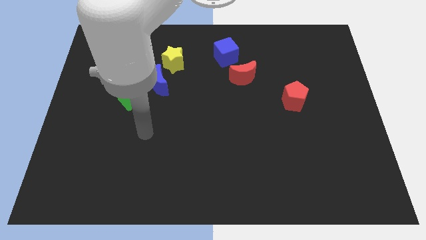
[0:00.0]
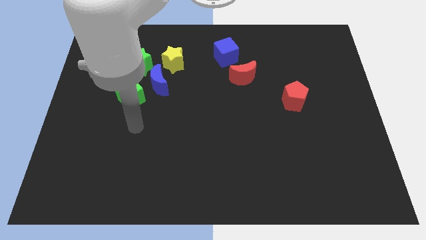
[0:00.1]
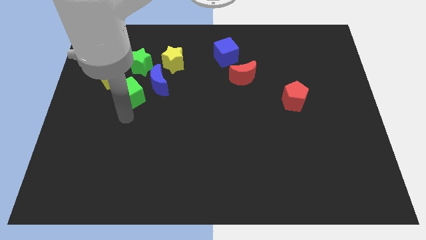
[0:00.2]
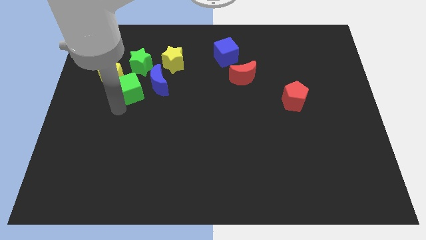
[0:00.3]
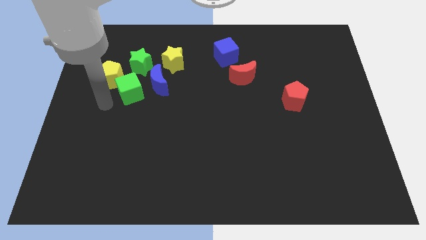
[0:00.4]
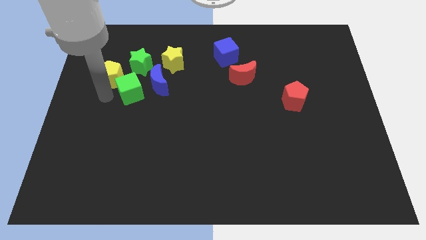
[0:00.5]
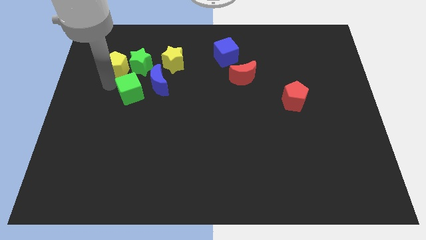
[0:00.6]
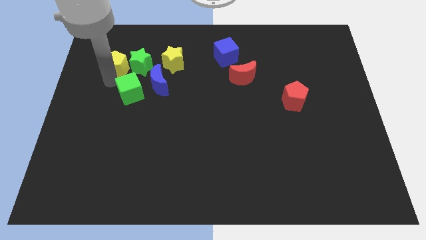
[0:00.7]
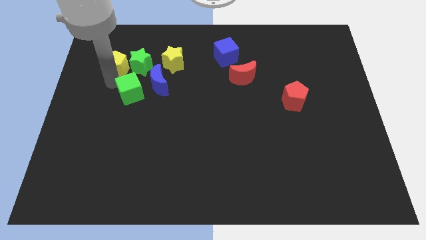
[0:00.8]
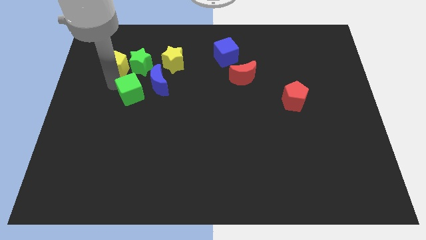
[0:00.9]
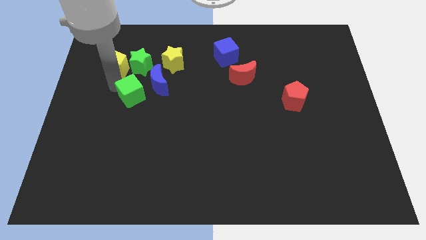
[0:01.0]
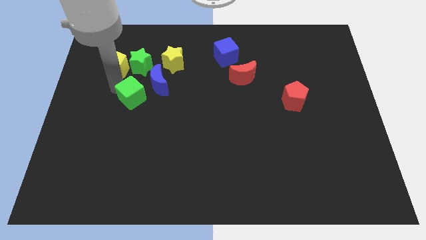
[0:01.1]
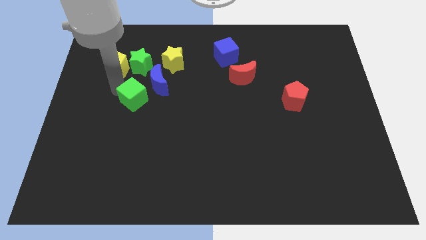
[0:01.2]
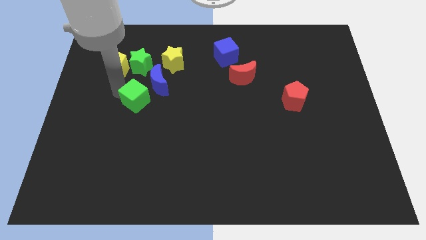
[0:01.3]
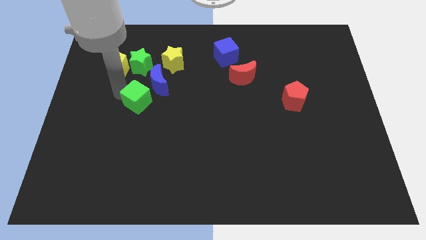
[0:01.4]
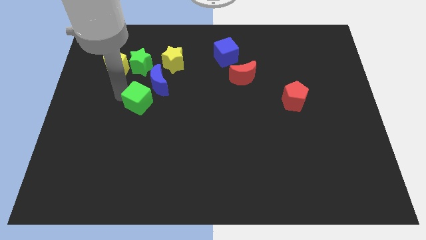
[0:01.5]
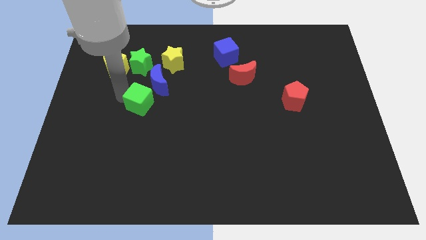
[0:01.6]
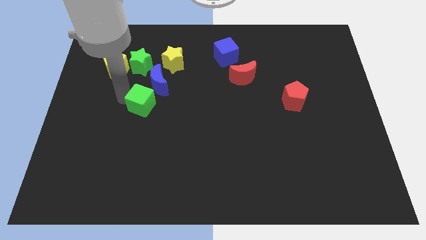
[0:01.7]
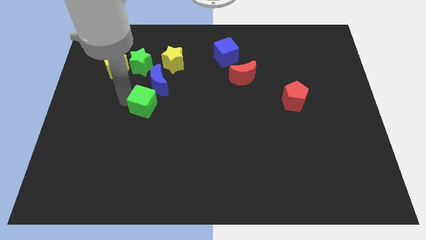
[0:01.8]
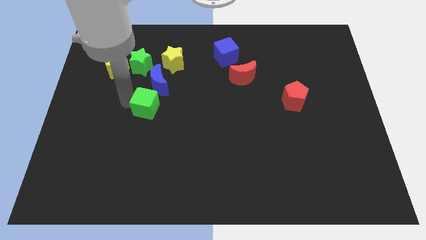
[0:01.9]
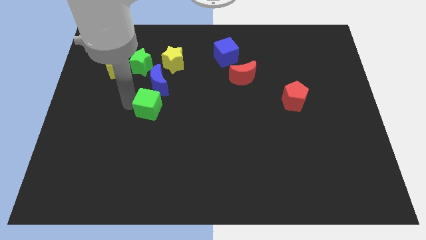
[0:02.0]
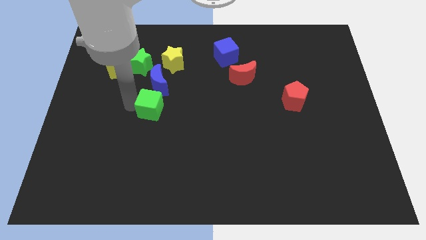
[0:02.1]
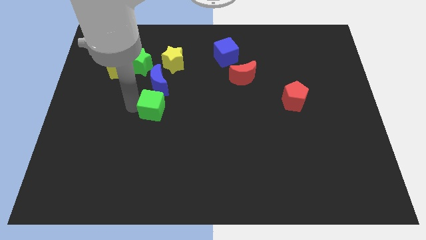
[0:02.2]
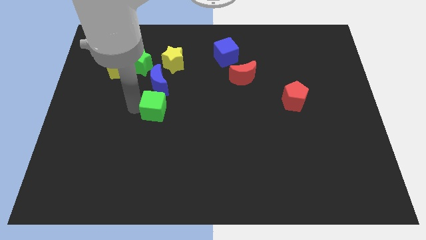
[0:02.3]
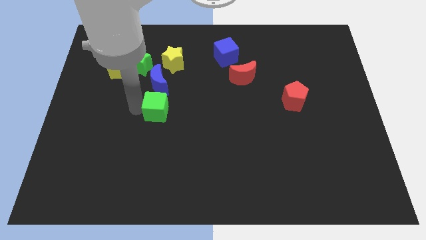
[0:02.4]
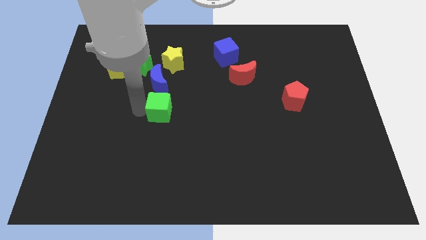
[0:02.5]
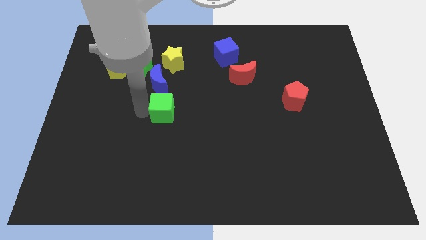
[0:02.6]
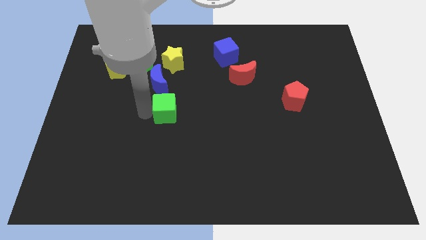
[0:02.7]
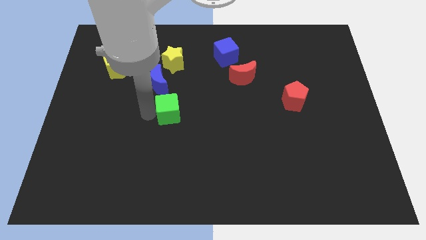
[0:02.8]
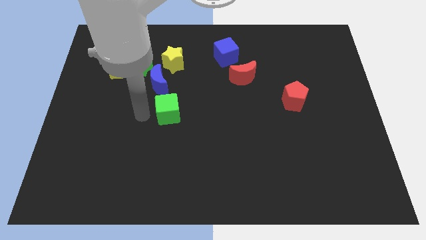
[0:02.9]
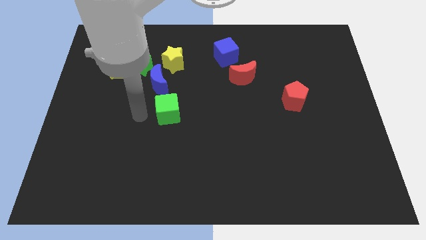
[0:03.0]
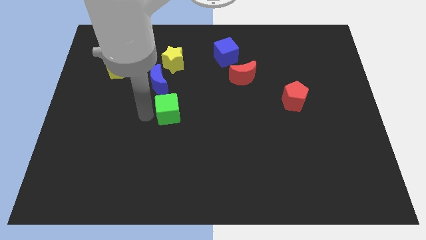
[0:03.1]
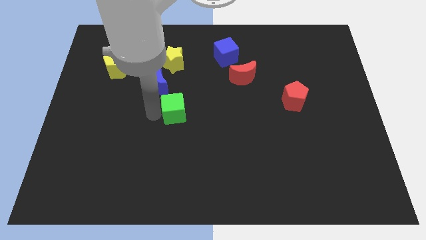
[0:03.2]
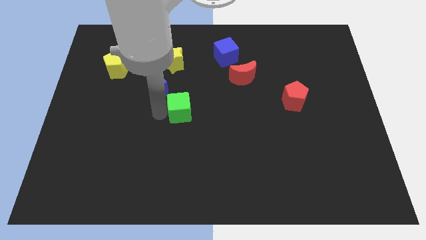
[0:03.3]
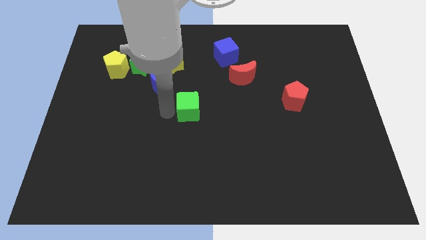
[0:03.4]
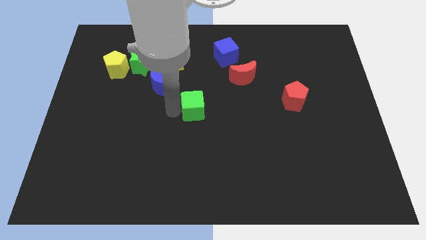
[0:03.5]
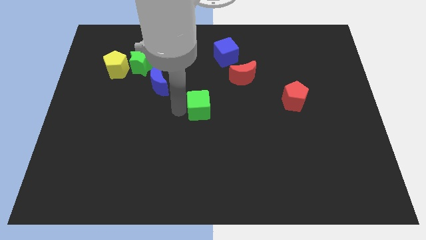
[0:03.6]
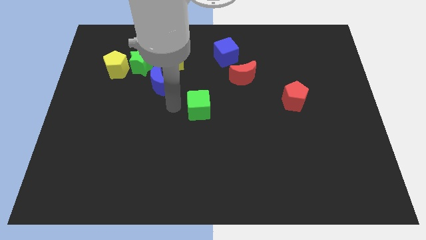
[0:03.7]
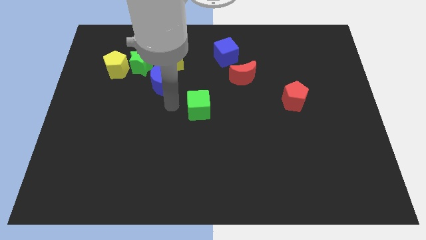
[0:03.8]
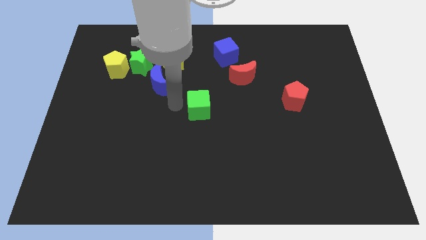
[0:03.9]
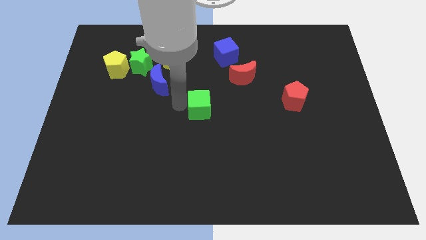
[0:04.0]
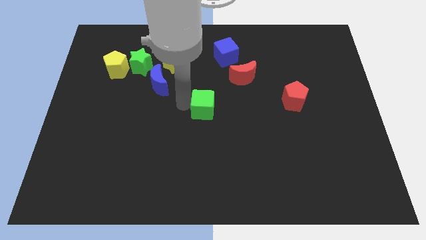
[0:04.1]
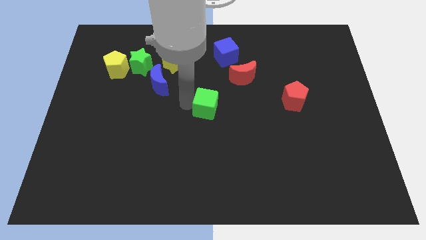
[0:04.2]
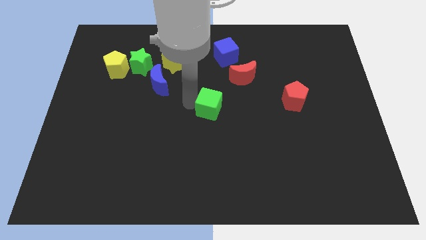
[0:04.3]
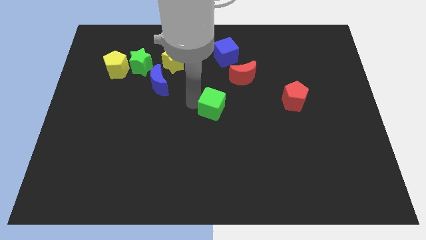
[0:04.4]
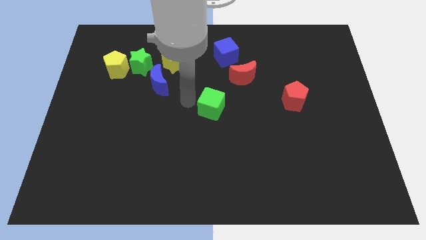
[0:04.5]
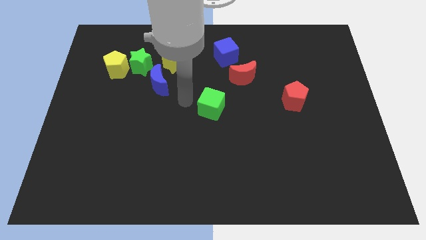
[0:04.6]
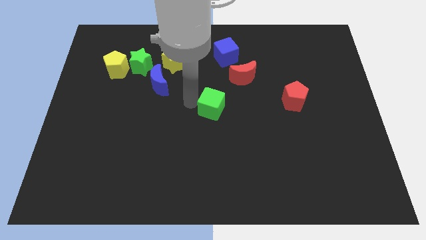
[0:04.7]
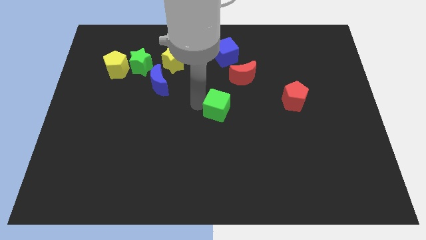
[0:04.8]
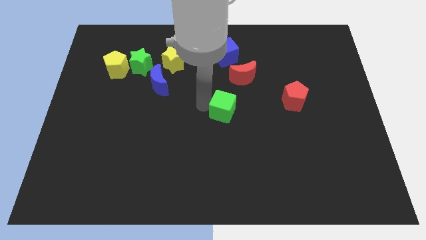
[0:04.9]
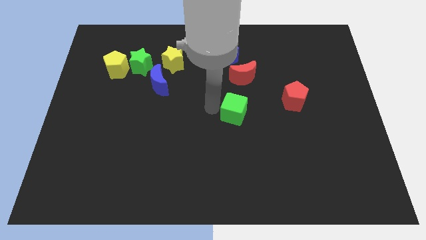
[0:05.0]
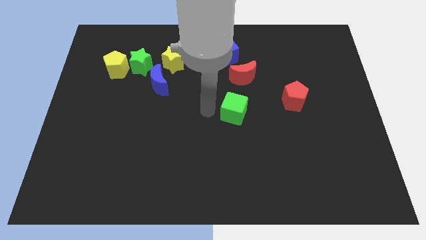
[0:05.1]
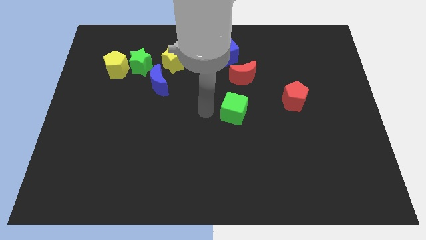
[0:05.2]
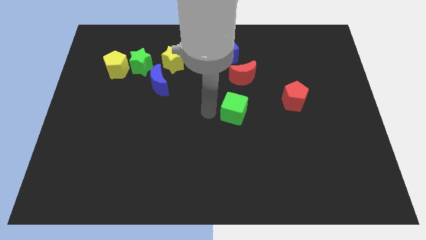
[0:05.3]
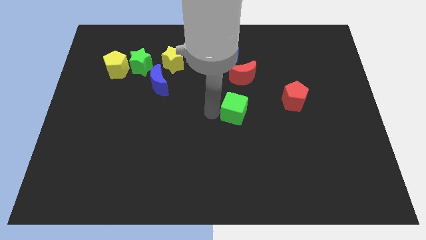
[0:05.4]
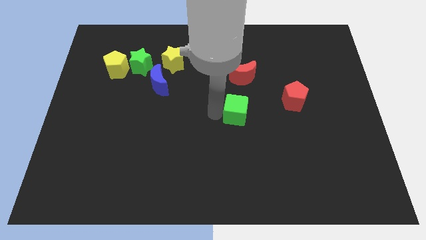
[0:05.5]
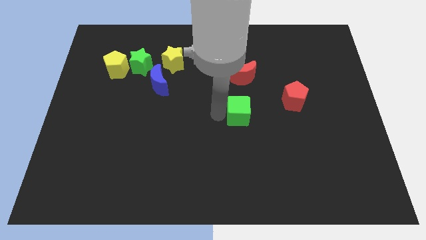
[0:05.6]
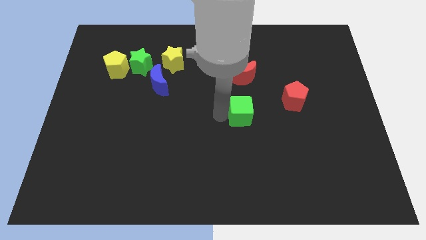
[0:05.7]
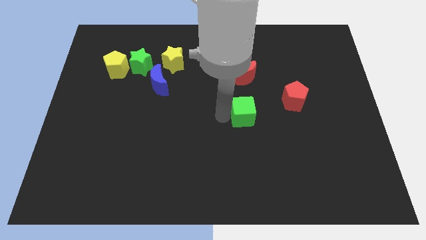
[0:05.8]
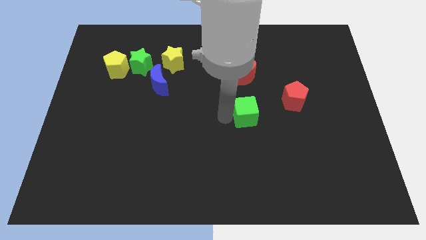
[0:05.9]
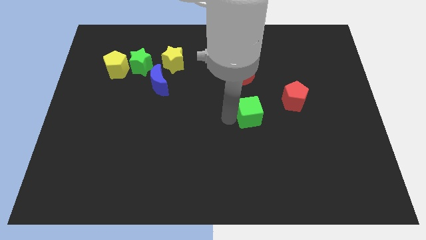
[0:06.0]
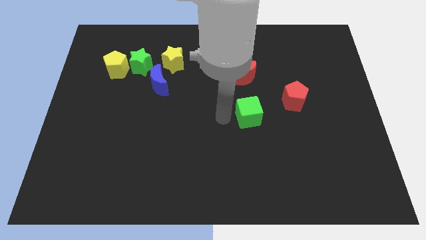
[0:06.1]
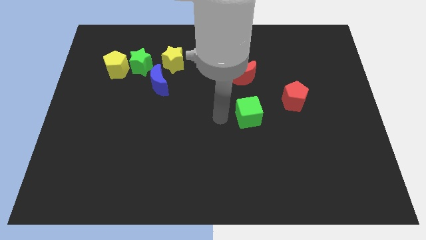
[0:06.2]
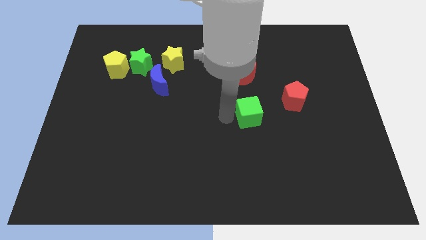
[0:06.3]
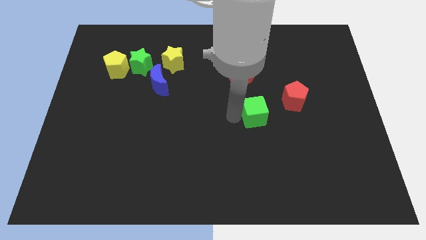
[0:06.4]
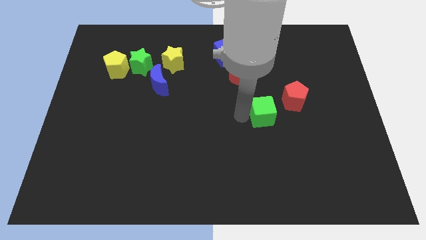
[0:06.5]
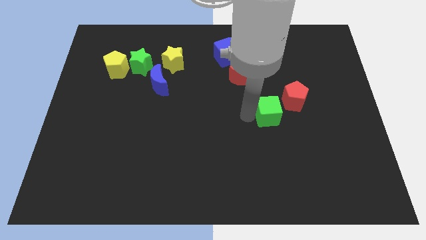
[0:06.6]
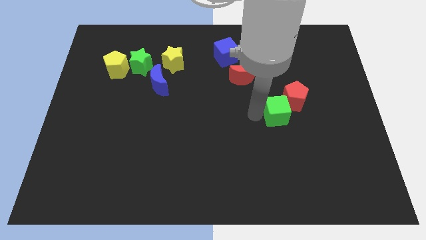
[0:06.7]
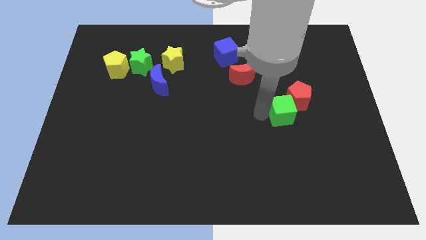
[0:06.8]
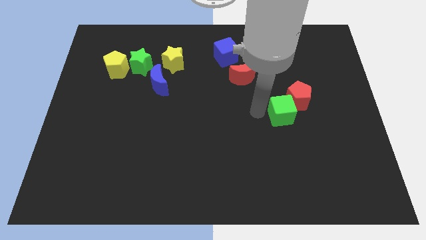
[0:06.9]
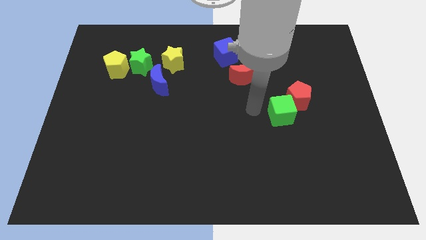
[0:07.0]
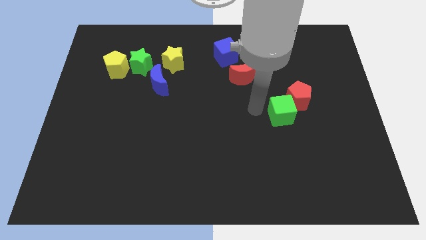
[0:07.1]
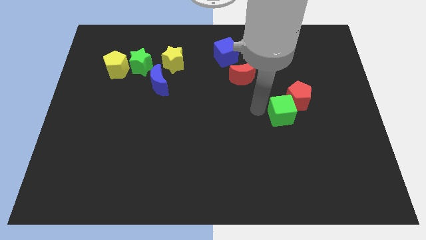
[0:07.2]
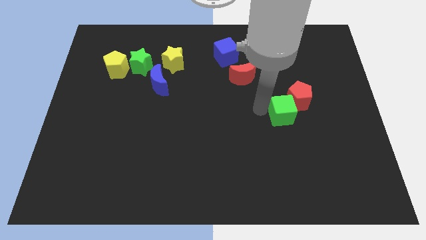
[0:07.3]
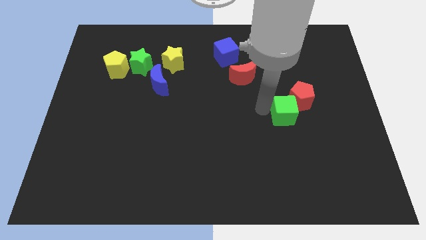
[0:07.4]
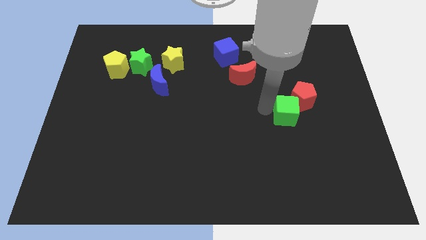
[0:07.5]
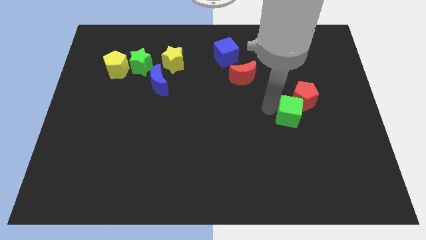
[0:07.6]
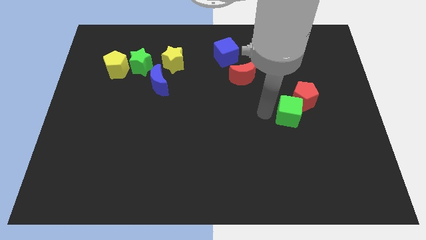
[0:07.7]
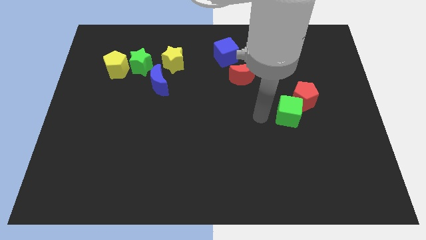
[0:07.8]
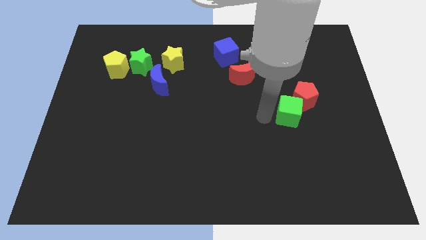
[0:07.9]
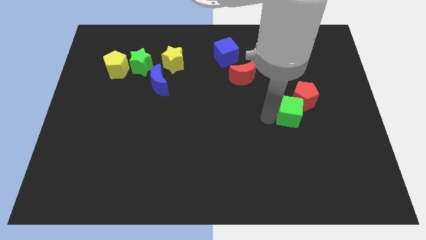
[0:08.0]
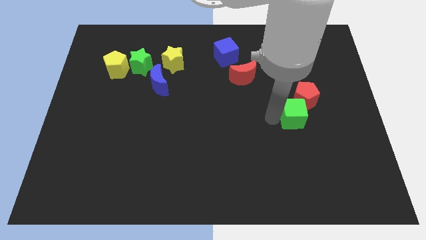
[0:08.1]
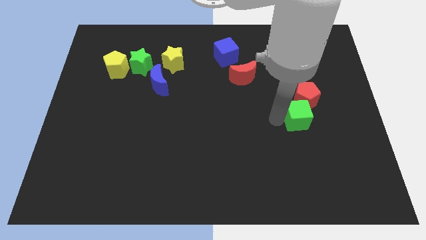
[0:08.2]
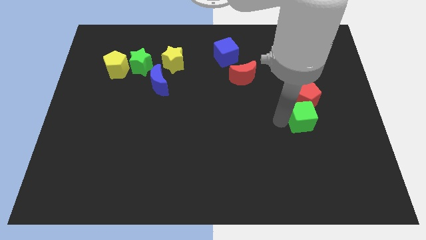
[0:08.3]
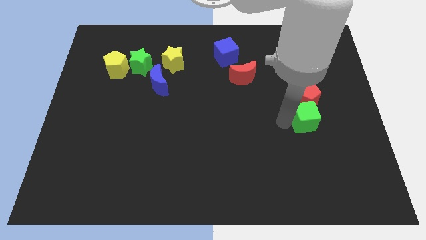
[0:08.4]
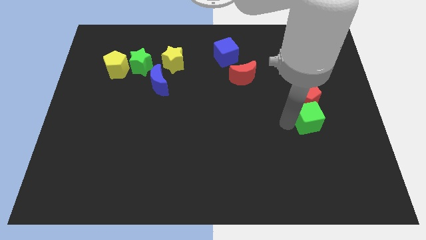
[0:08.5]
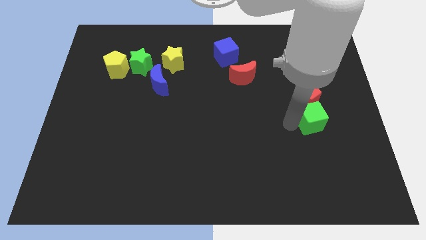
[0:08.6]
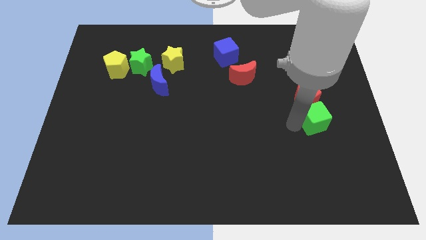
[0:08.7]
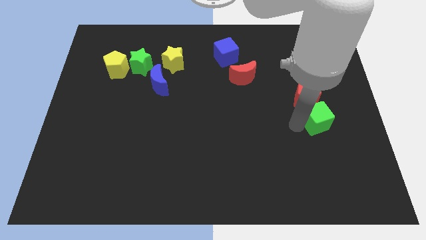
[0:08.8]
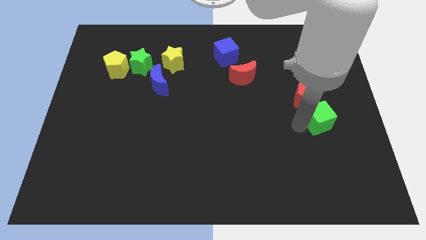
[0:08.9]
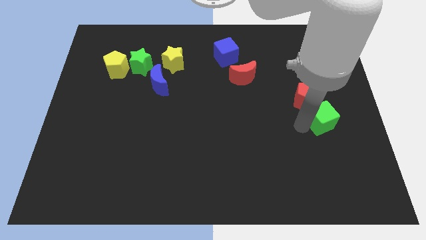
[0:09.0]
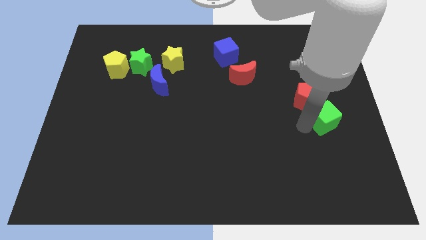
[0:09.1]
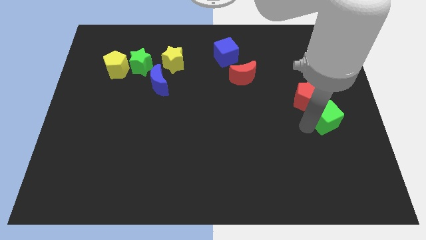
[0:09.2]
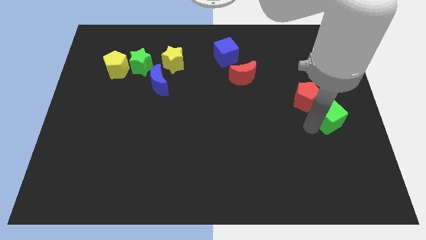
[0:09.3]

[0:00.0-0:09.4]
push the green cube to the right side
